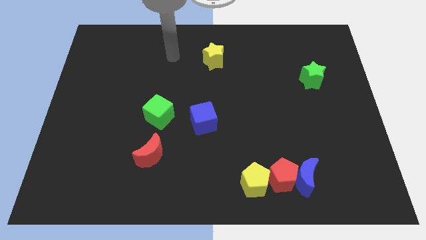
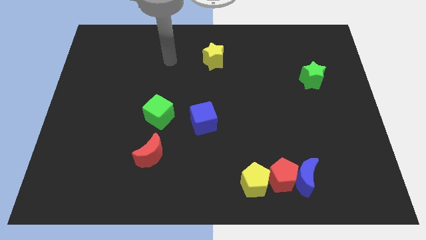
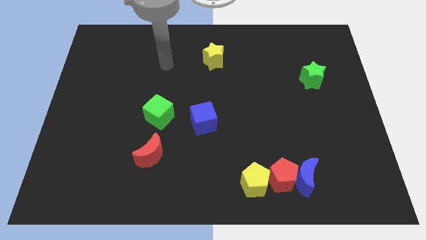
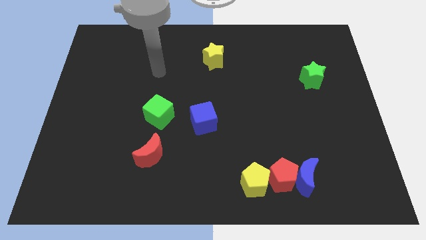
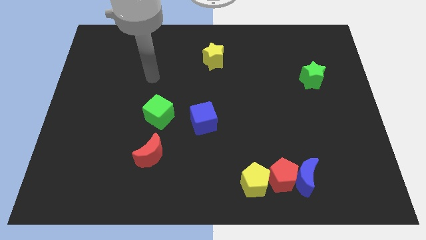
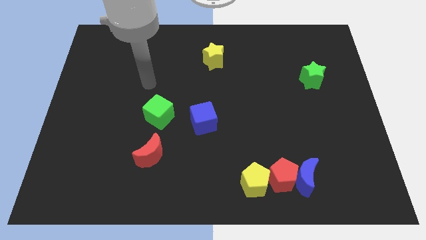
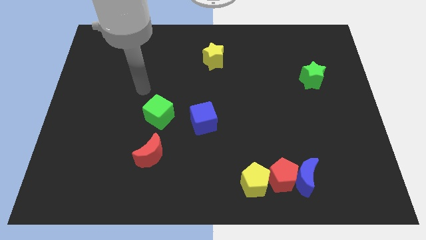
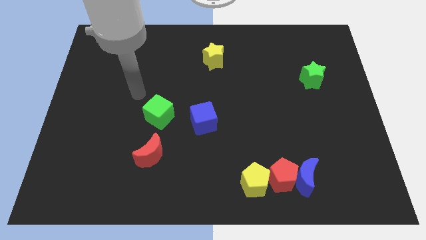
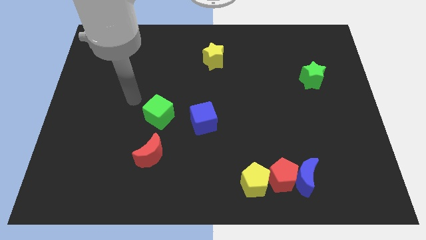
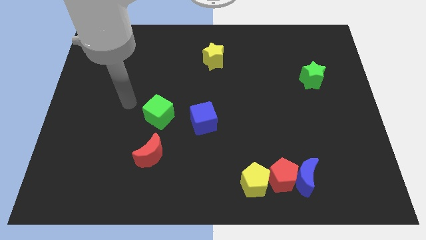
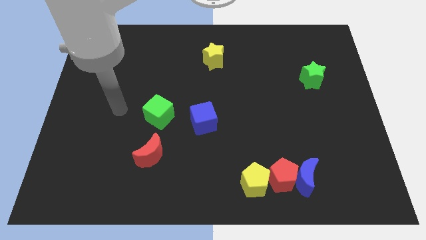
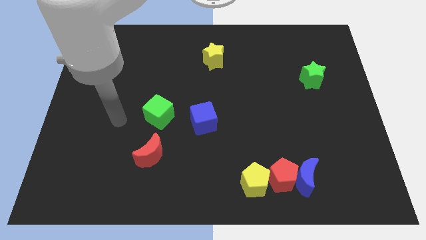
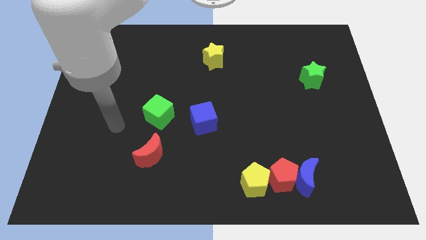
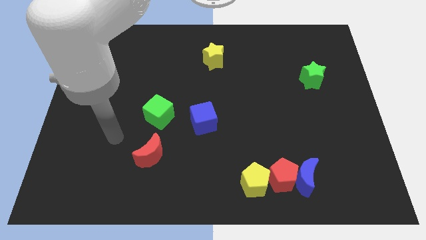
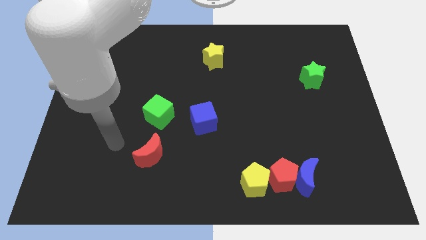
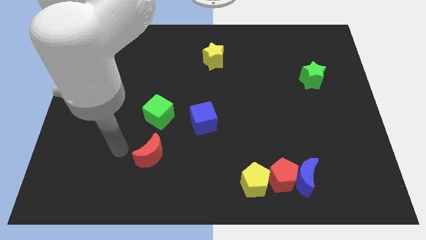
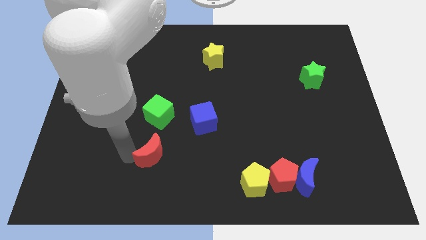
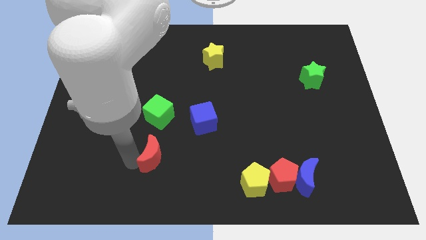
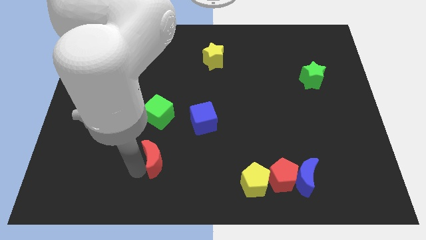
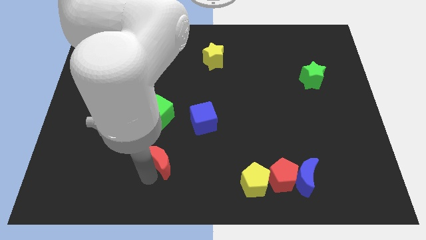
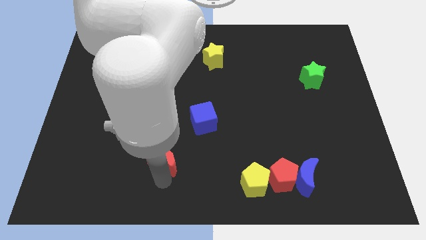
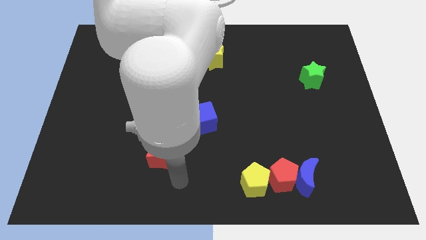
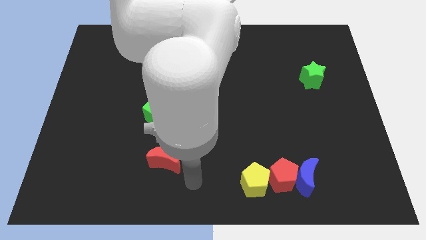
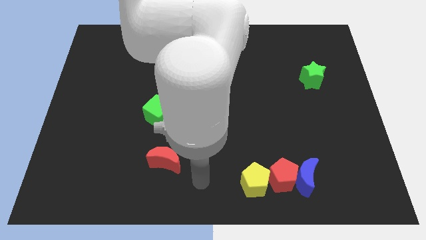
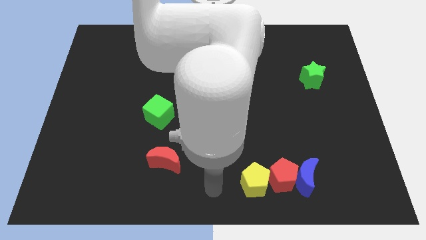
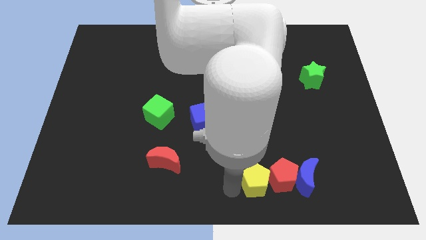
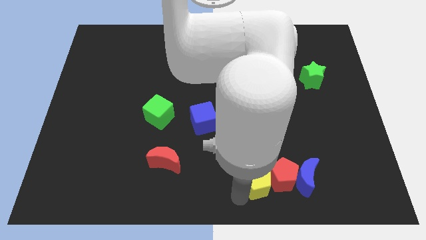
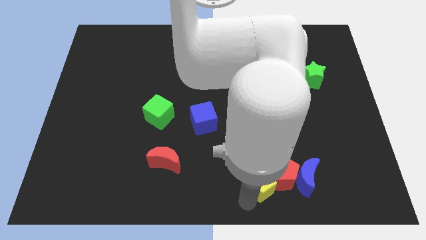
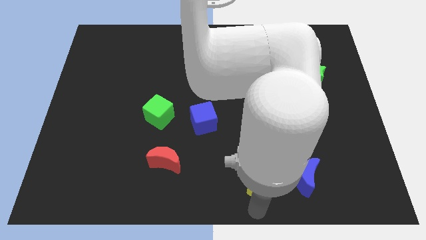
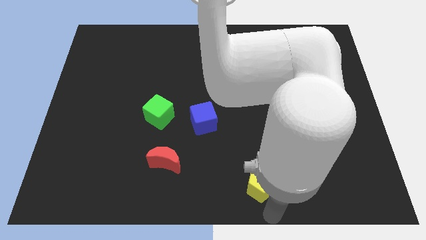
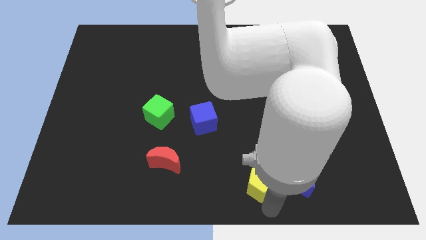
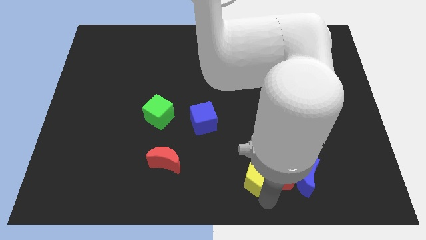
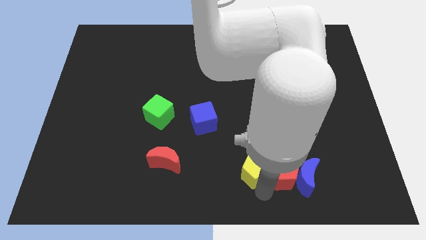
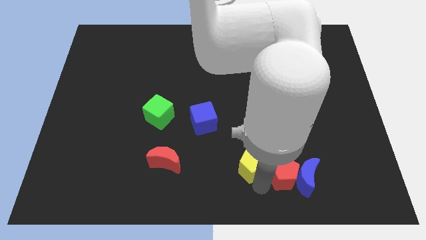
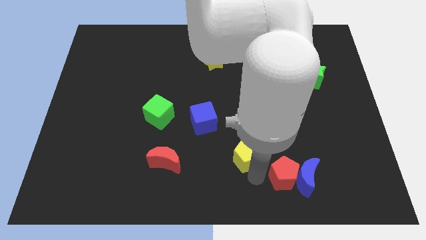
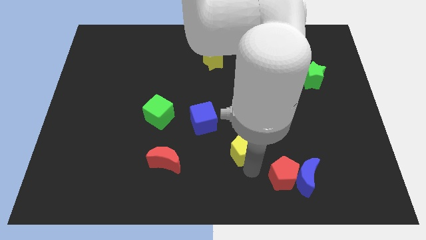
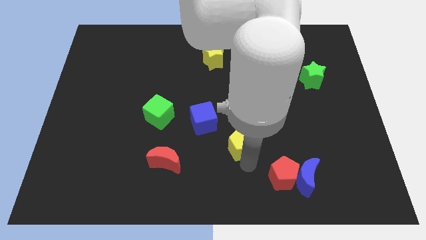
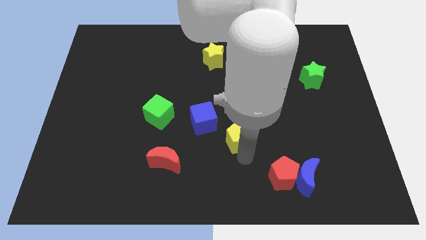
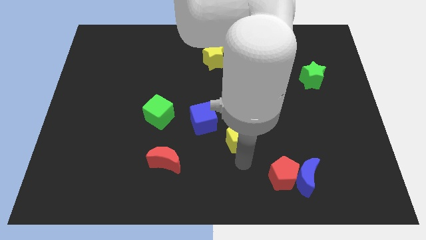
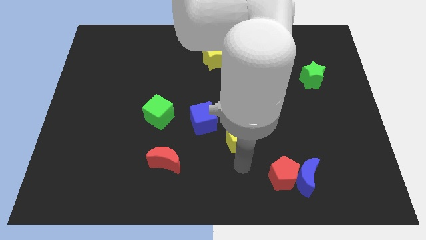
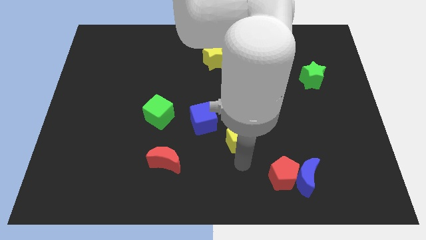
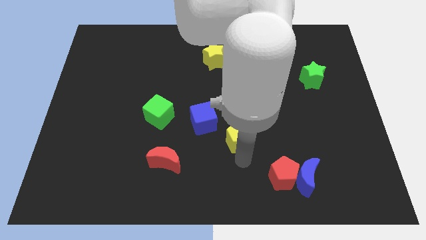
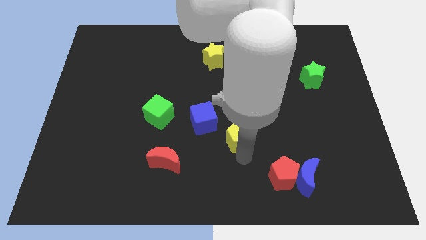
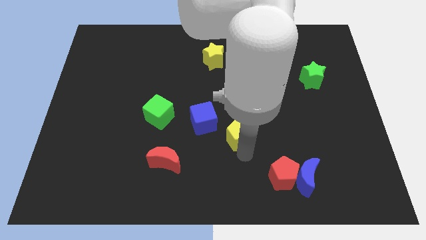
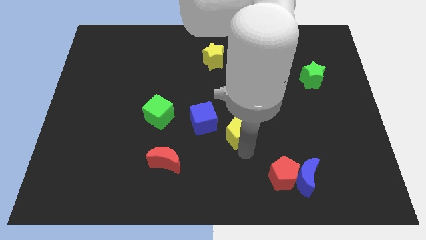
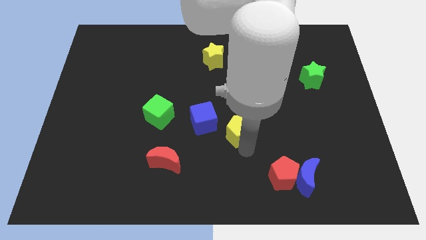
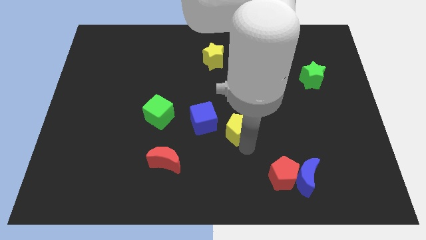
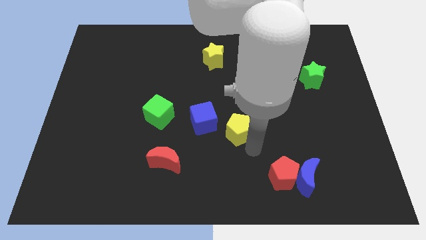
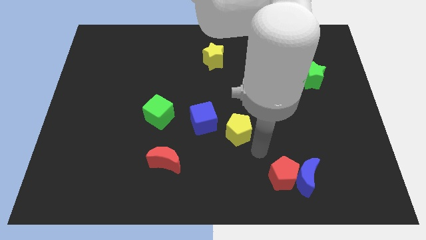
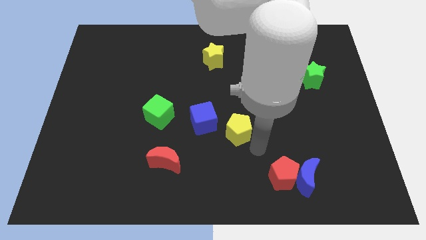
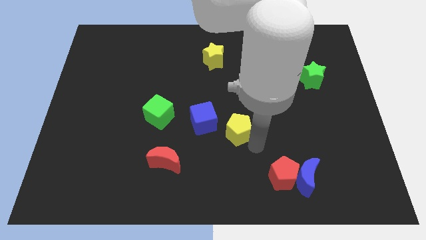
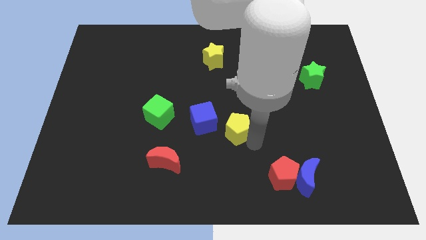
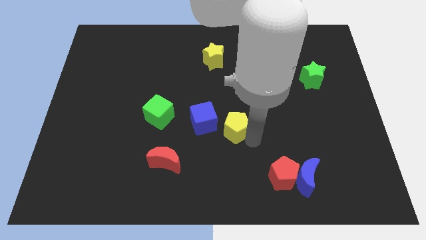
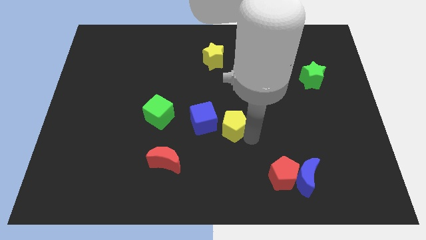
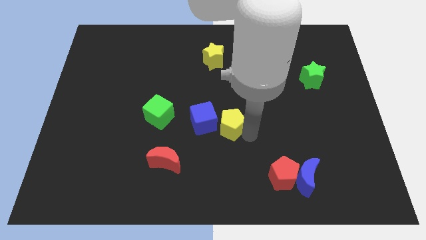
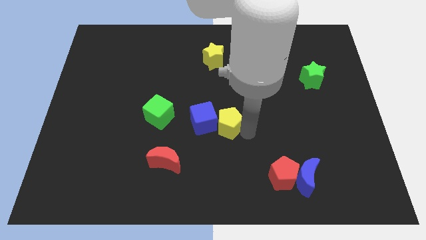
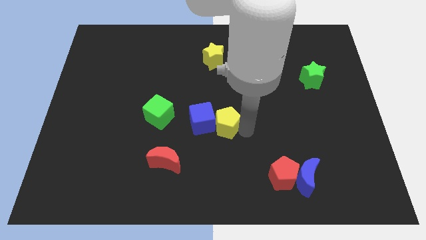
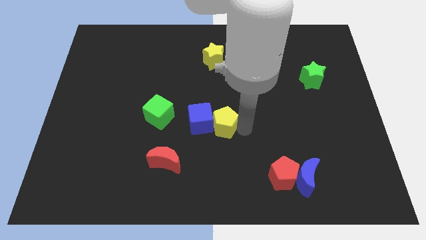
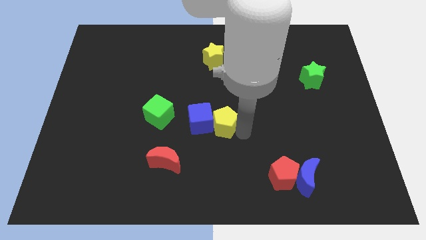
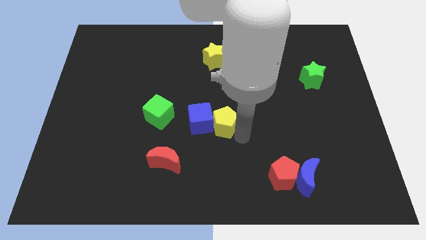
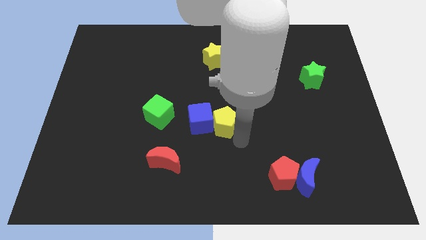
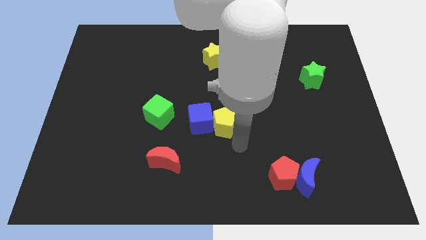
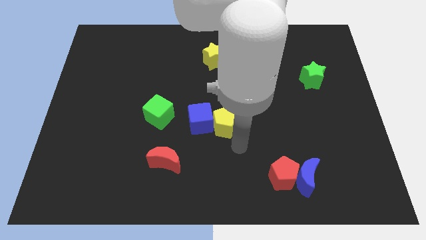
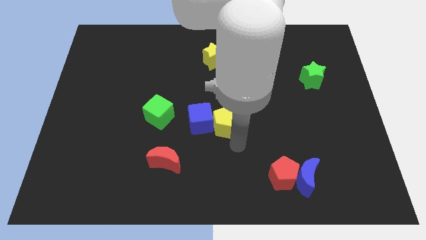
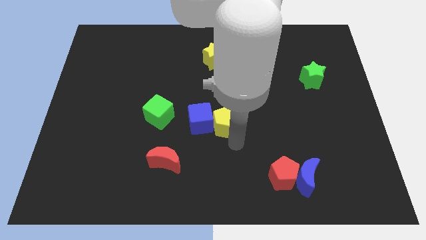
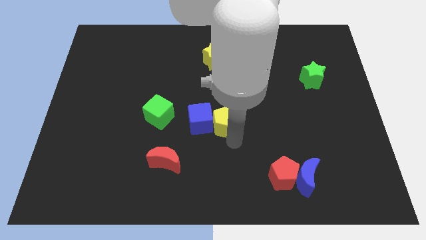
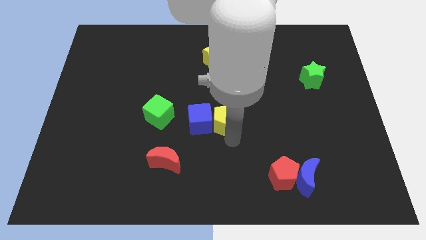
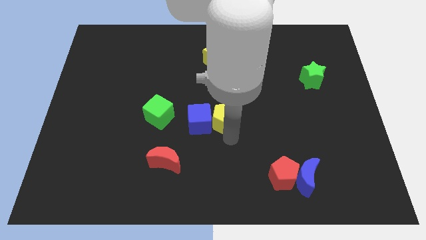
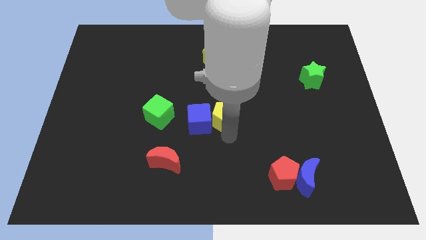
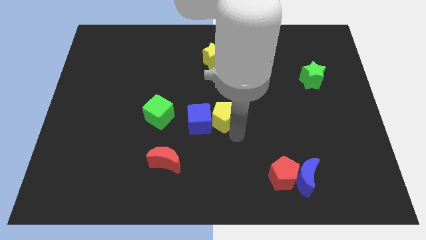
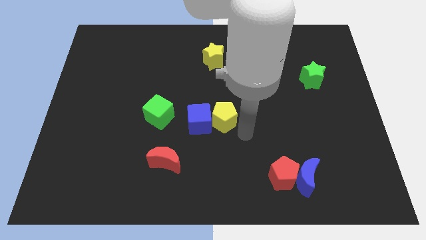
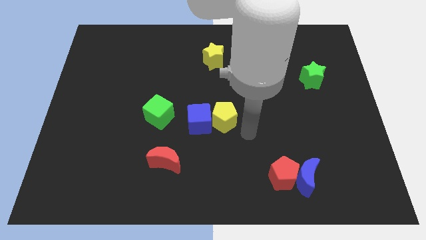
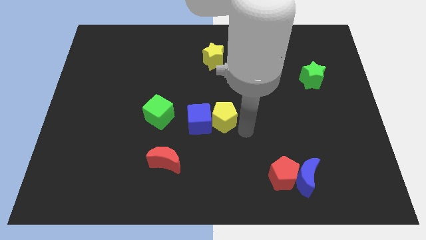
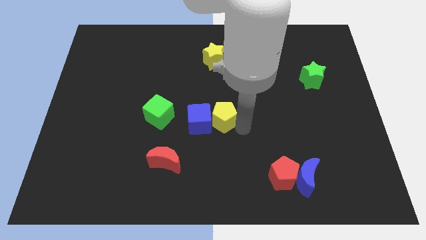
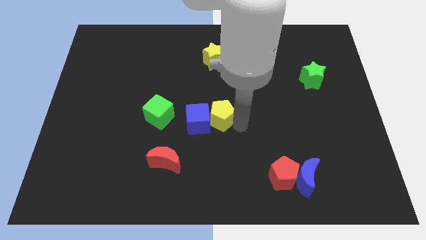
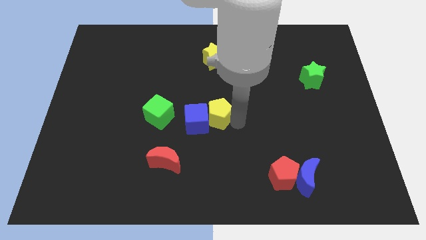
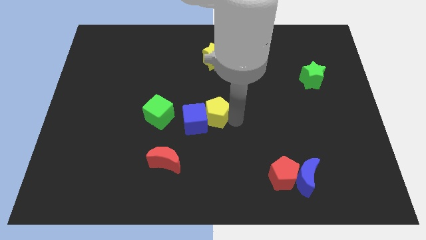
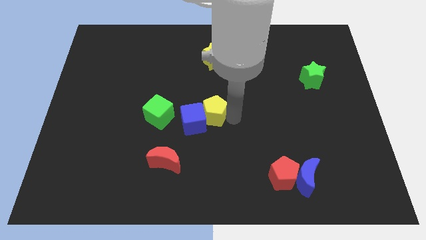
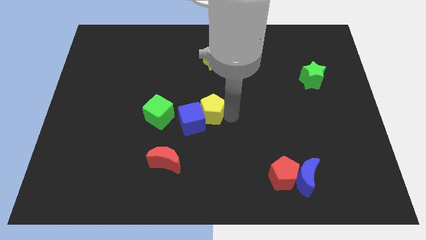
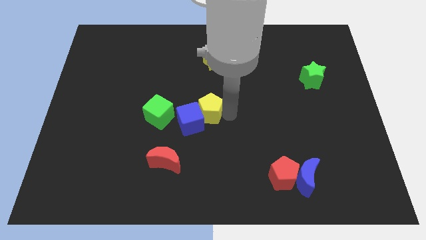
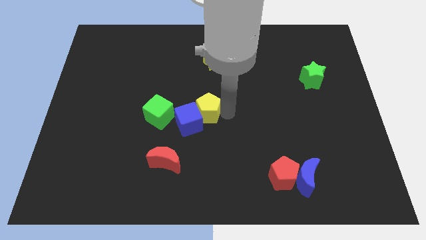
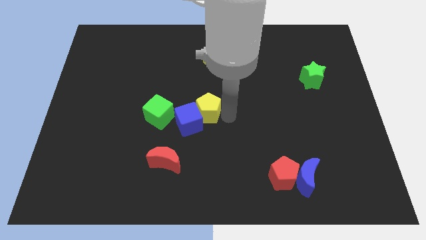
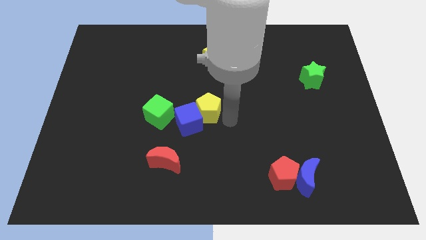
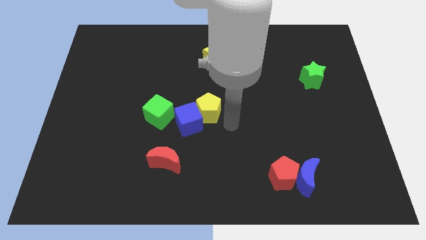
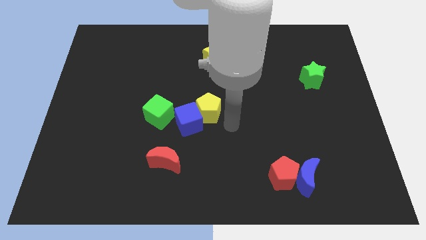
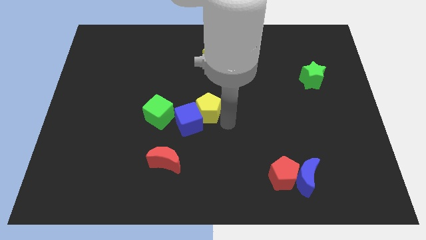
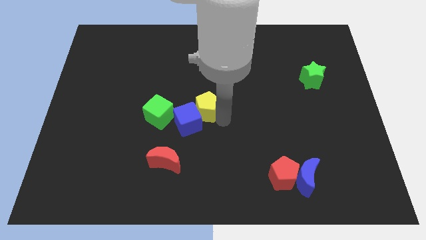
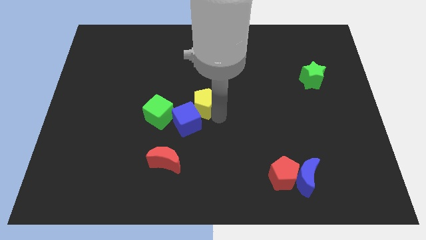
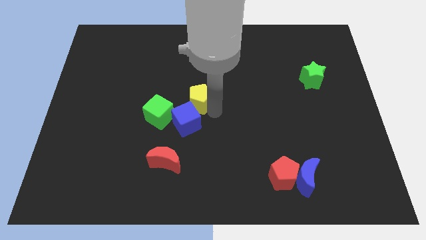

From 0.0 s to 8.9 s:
slide the yellow pentagon diagonally upwards and left
